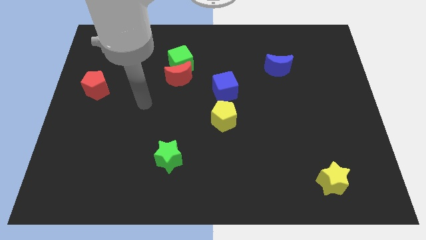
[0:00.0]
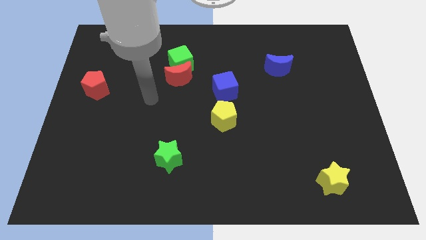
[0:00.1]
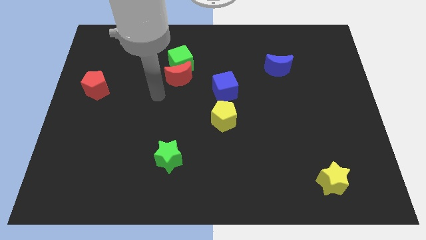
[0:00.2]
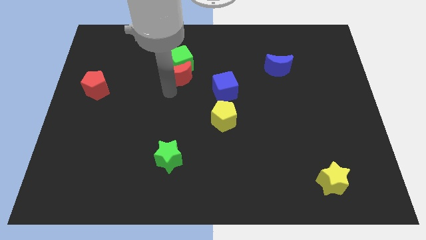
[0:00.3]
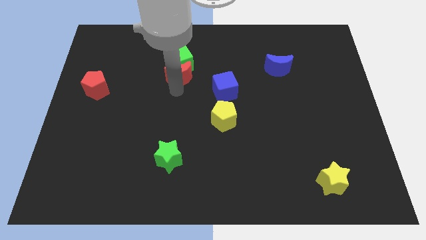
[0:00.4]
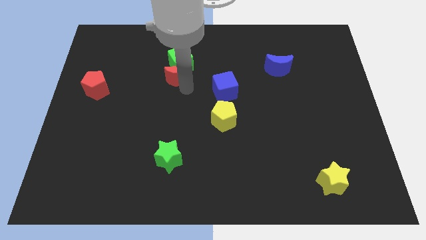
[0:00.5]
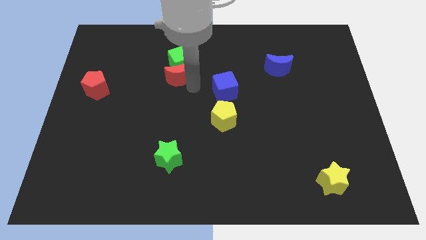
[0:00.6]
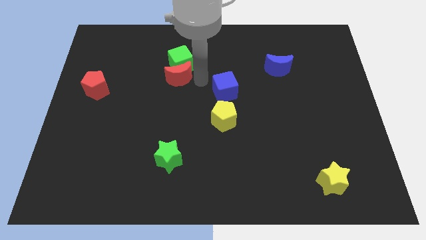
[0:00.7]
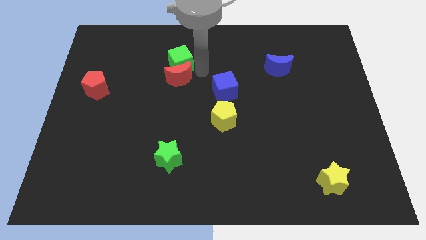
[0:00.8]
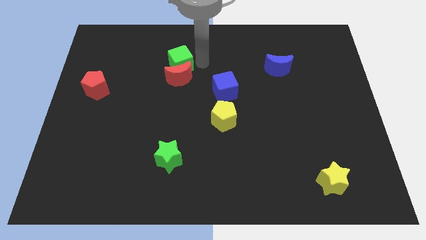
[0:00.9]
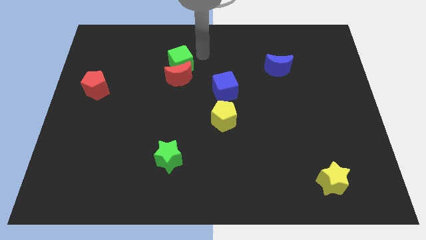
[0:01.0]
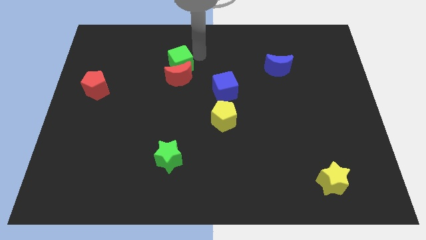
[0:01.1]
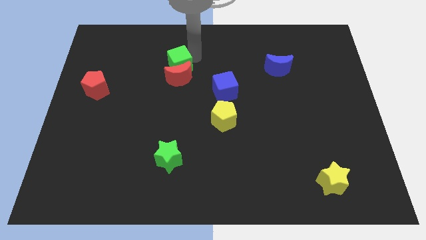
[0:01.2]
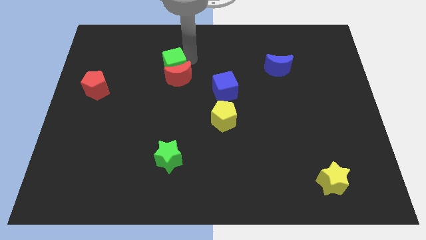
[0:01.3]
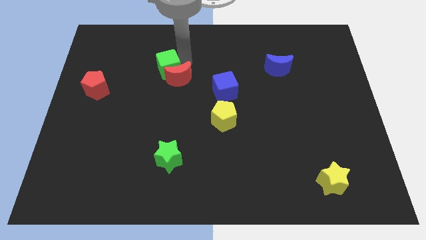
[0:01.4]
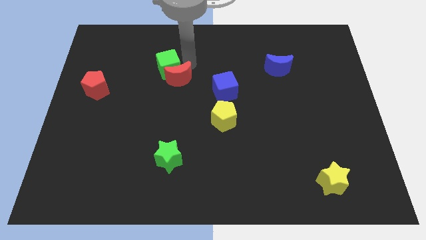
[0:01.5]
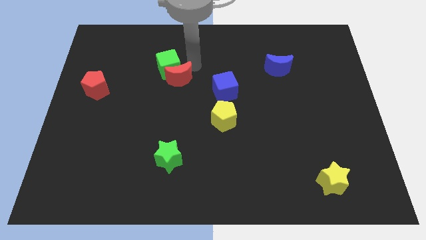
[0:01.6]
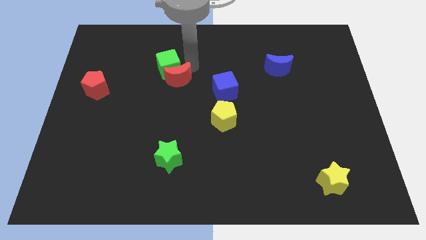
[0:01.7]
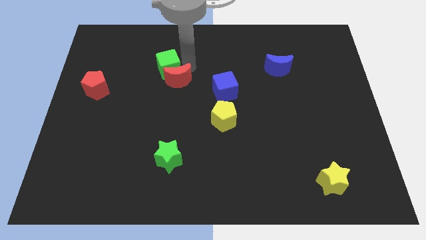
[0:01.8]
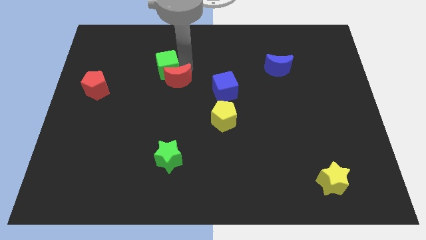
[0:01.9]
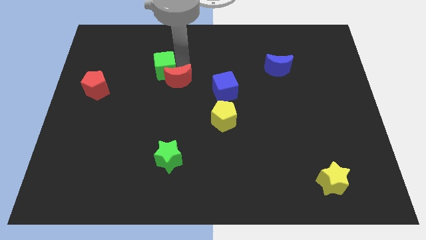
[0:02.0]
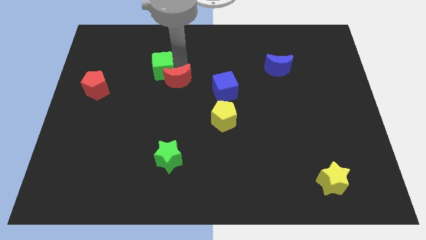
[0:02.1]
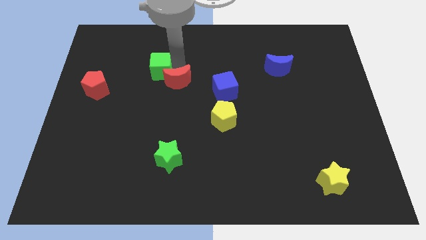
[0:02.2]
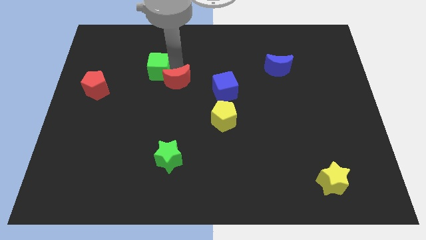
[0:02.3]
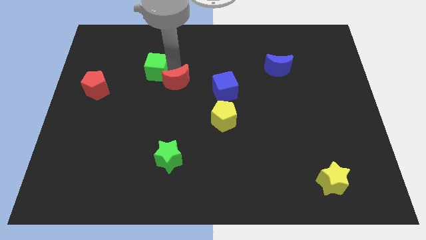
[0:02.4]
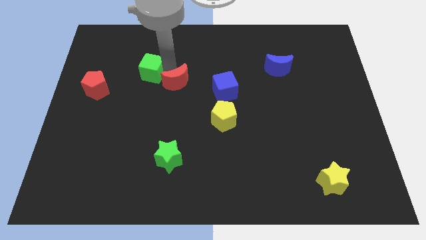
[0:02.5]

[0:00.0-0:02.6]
move the green cube slightly left

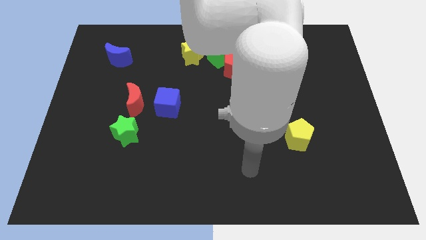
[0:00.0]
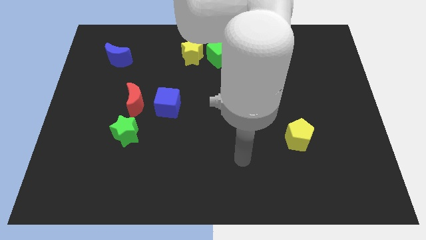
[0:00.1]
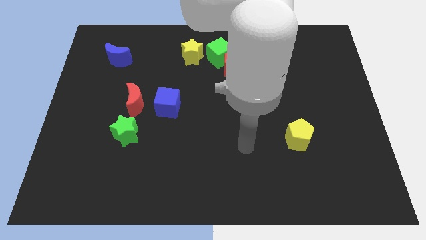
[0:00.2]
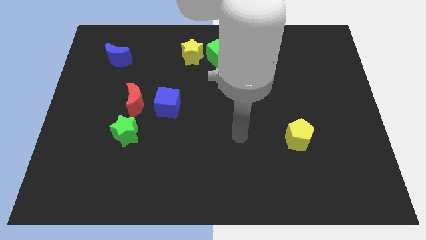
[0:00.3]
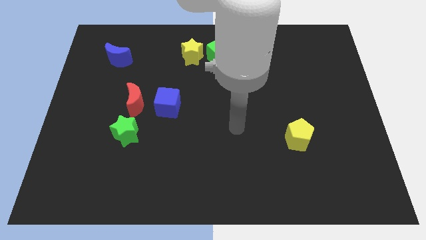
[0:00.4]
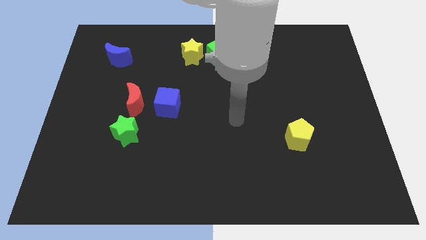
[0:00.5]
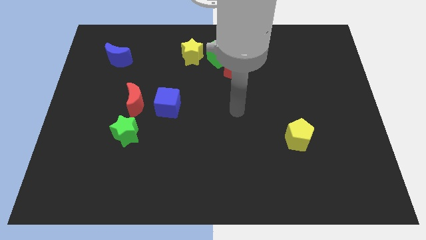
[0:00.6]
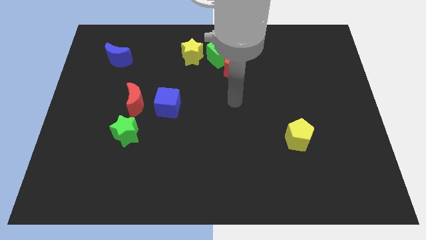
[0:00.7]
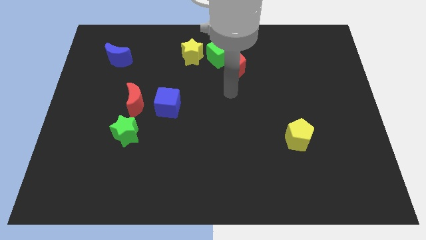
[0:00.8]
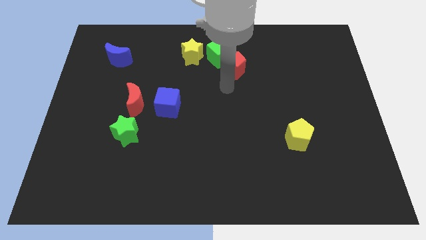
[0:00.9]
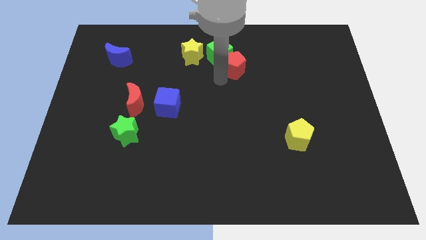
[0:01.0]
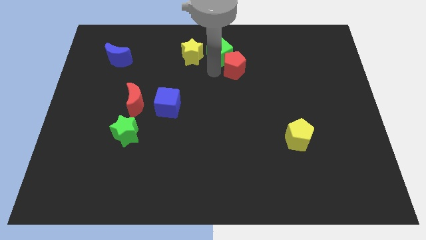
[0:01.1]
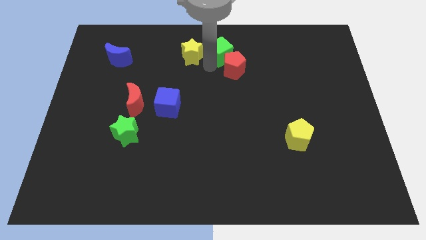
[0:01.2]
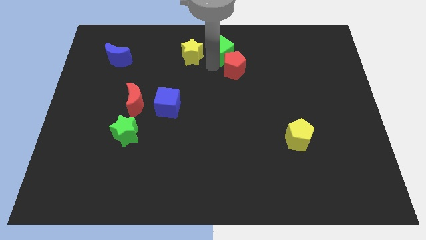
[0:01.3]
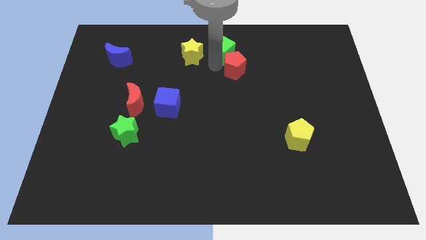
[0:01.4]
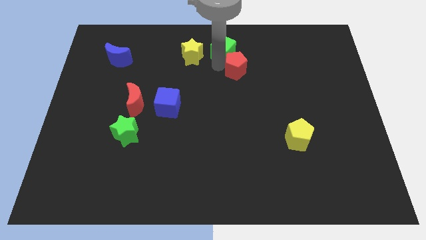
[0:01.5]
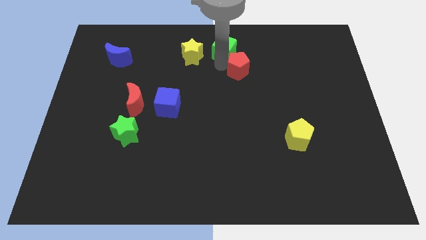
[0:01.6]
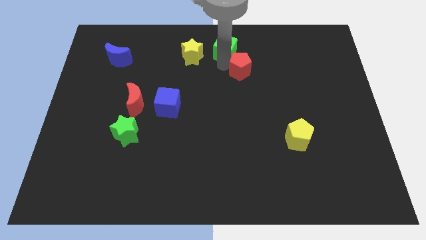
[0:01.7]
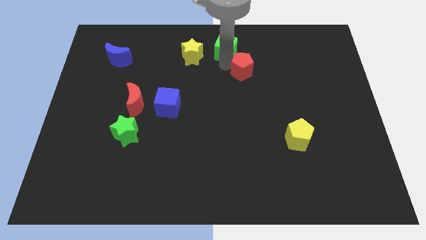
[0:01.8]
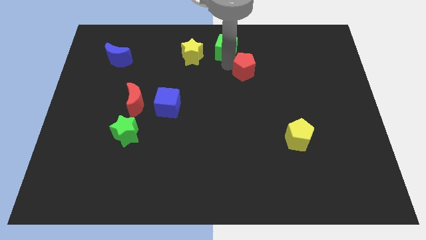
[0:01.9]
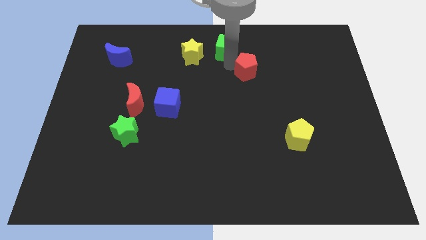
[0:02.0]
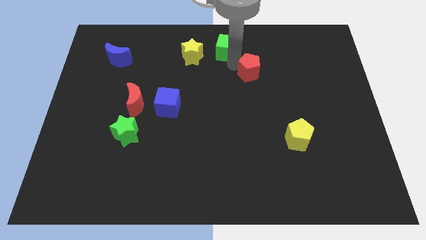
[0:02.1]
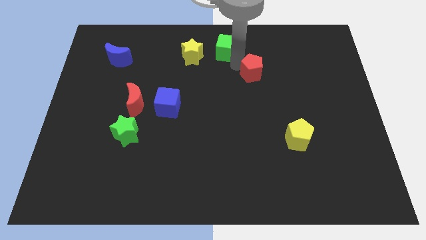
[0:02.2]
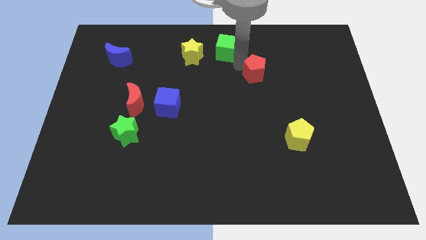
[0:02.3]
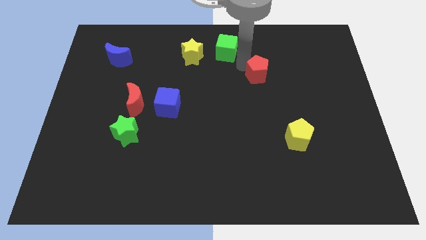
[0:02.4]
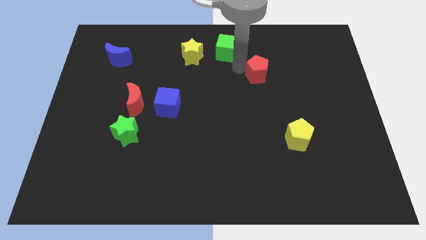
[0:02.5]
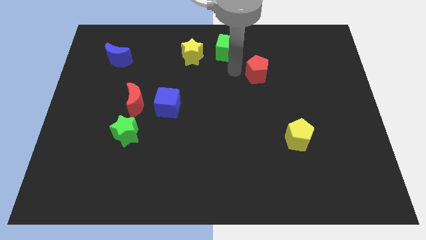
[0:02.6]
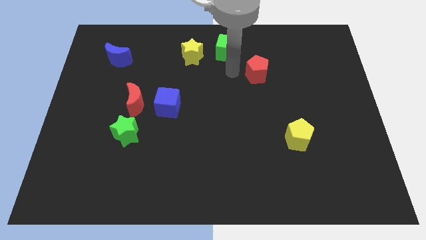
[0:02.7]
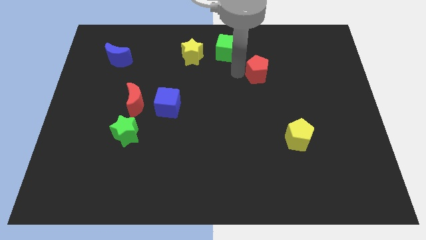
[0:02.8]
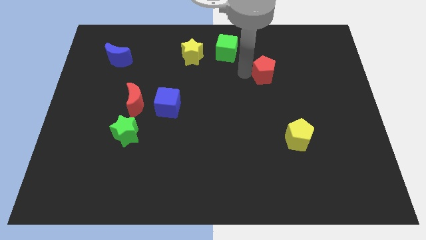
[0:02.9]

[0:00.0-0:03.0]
move the red pentagon right a little

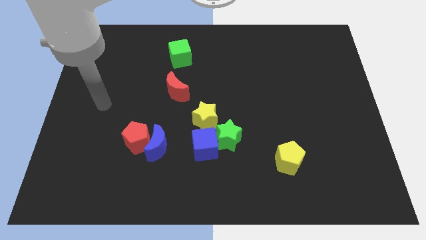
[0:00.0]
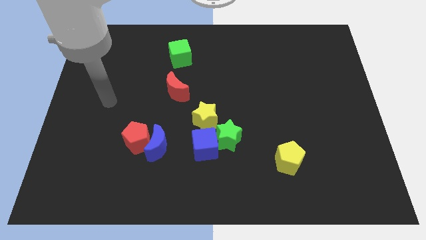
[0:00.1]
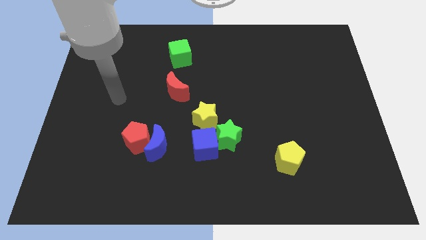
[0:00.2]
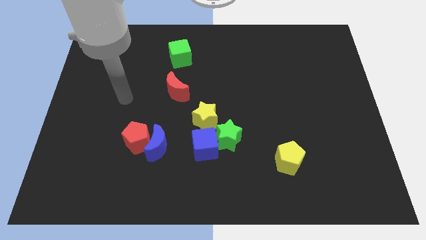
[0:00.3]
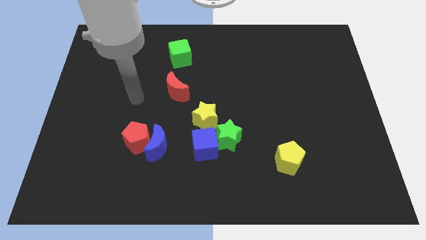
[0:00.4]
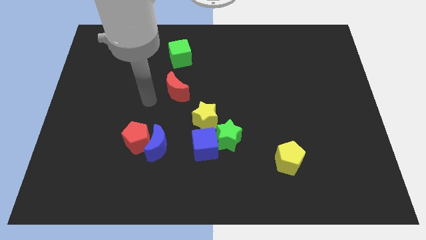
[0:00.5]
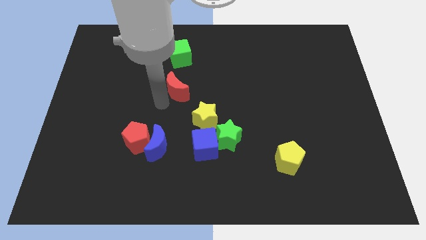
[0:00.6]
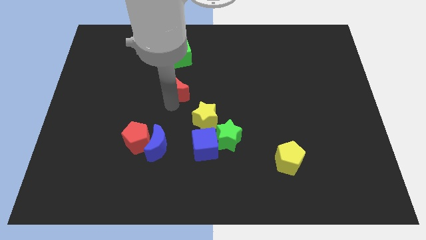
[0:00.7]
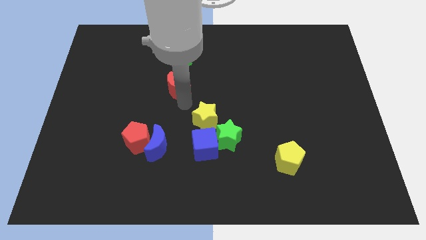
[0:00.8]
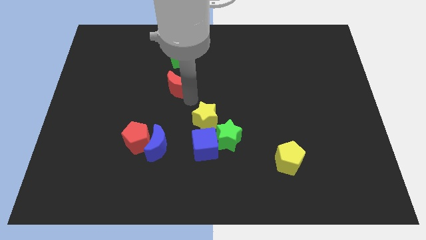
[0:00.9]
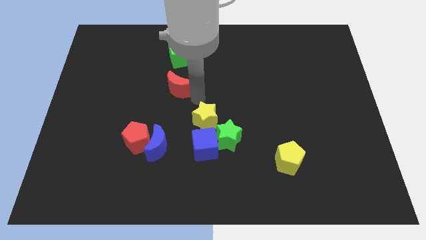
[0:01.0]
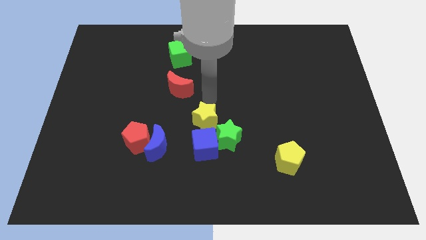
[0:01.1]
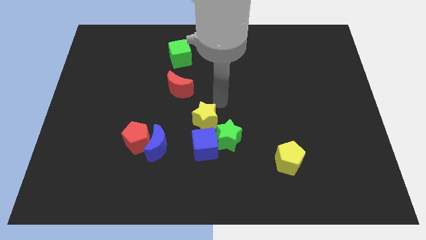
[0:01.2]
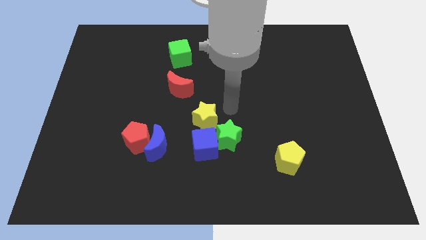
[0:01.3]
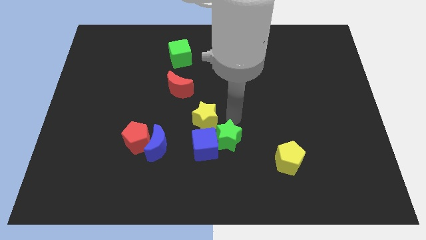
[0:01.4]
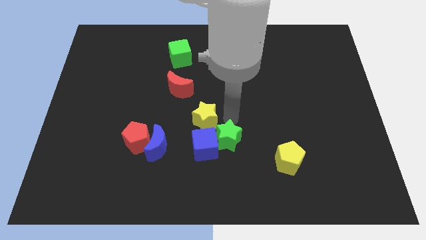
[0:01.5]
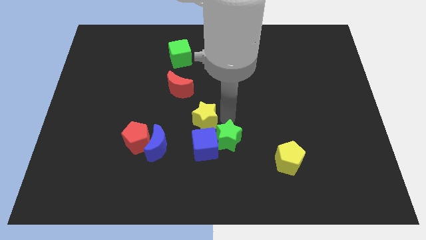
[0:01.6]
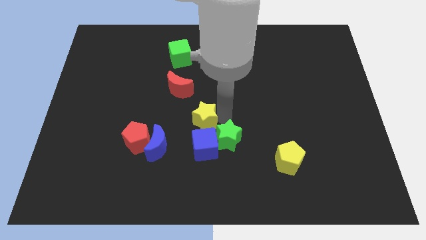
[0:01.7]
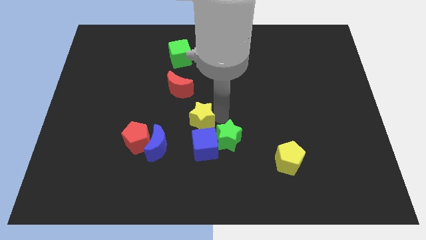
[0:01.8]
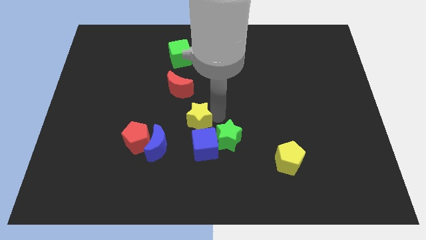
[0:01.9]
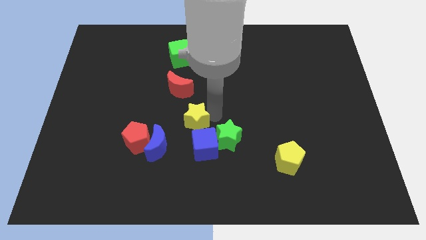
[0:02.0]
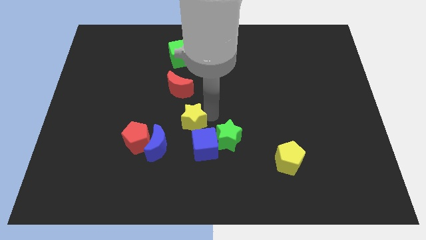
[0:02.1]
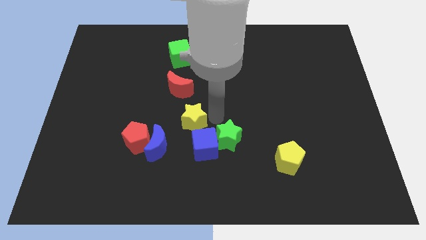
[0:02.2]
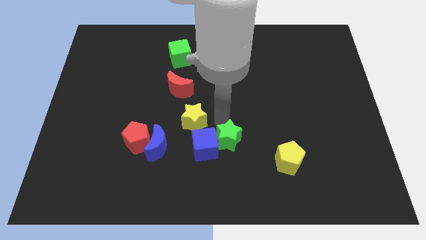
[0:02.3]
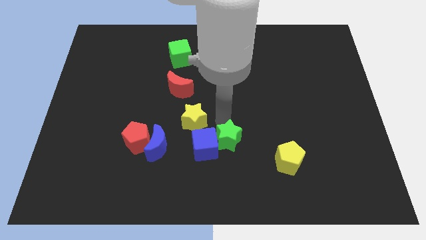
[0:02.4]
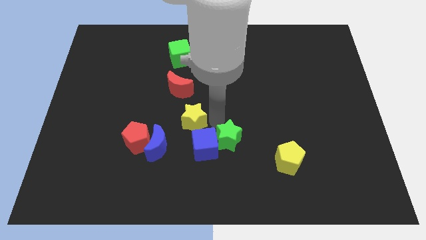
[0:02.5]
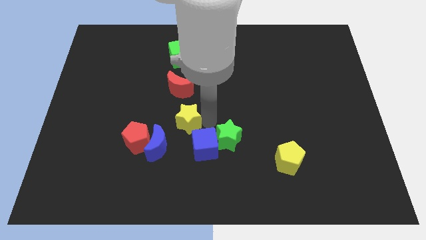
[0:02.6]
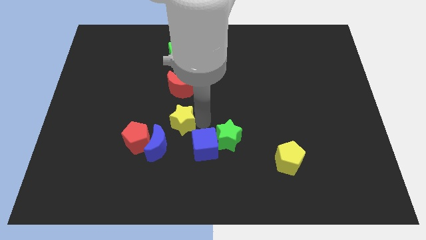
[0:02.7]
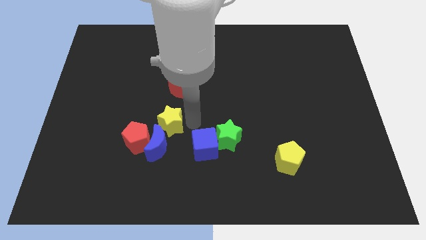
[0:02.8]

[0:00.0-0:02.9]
push the yellow star a bit to the left
